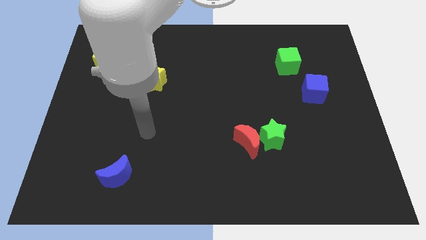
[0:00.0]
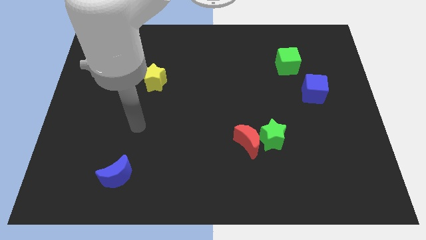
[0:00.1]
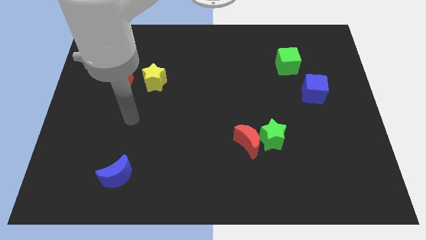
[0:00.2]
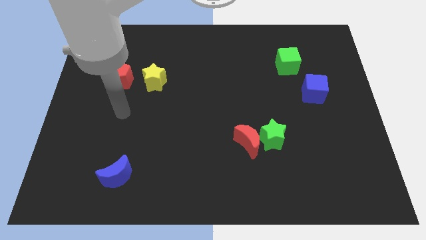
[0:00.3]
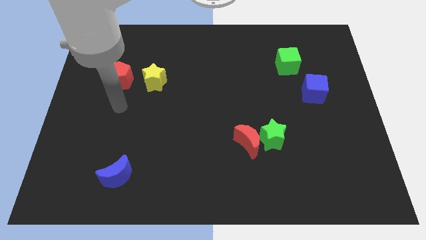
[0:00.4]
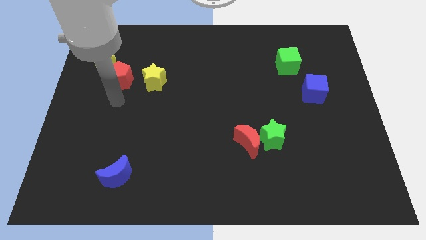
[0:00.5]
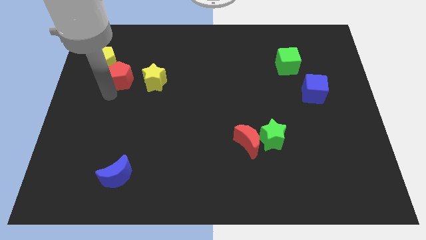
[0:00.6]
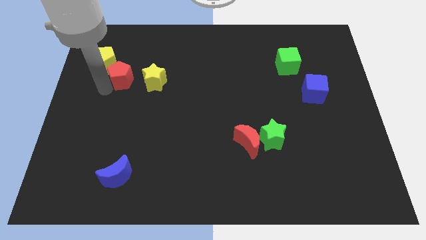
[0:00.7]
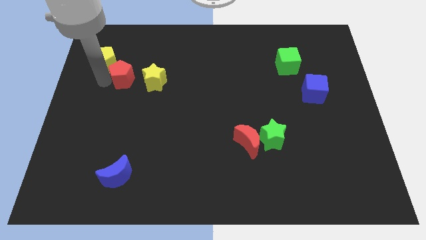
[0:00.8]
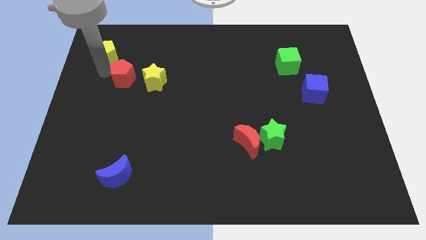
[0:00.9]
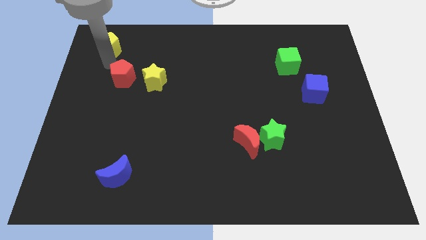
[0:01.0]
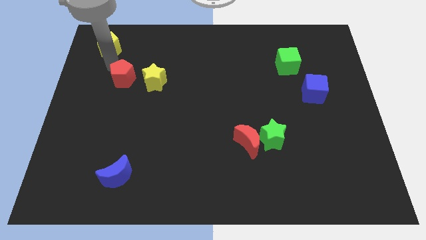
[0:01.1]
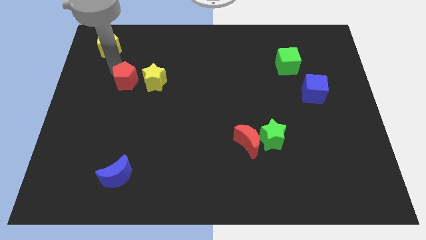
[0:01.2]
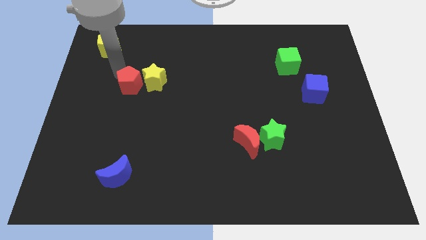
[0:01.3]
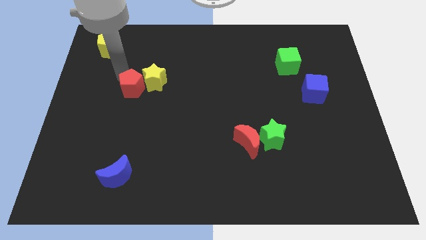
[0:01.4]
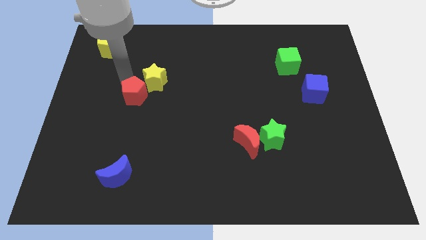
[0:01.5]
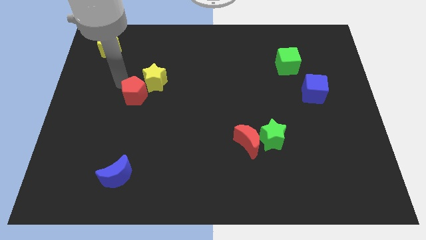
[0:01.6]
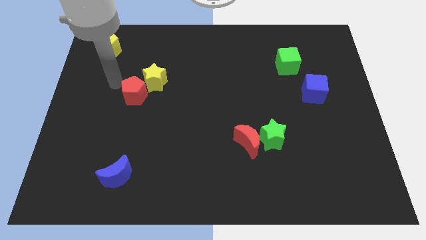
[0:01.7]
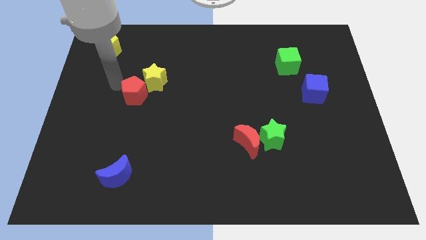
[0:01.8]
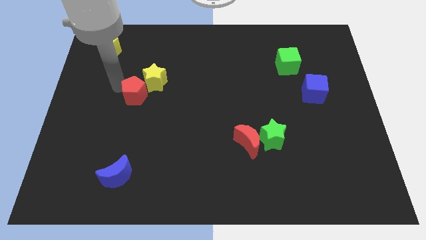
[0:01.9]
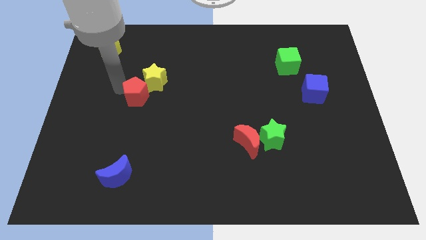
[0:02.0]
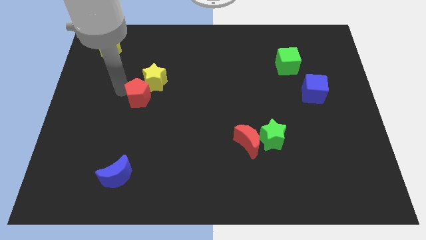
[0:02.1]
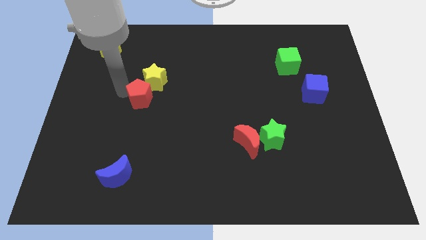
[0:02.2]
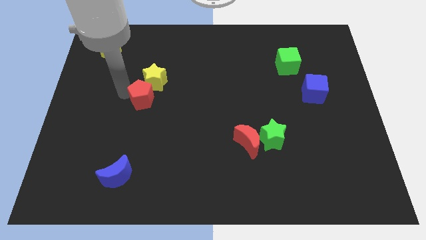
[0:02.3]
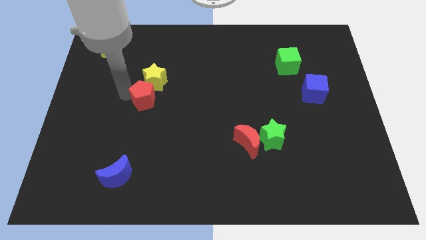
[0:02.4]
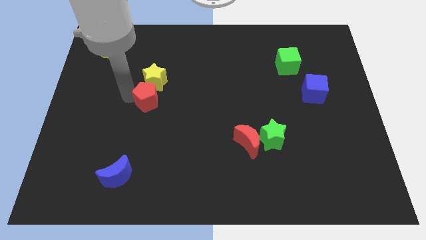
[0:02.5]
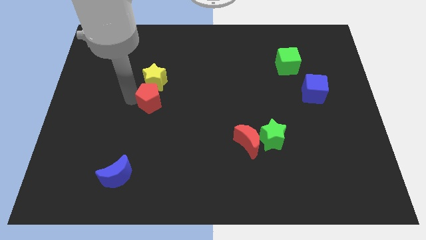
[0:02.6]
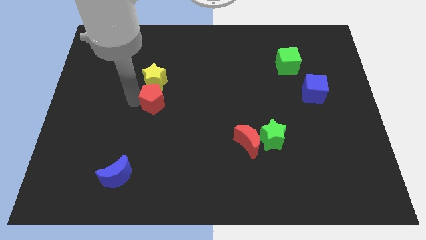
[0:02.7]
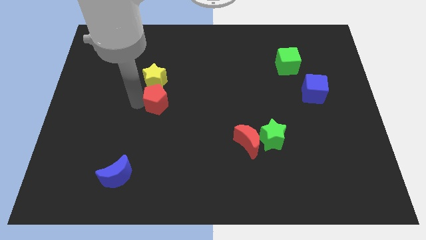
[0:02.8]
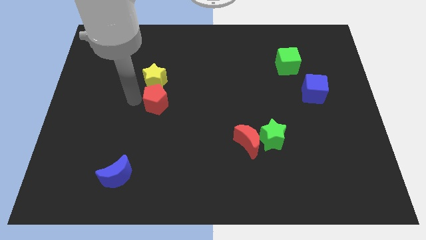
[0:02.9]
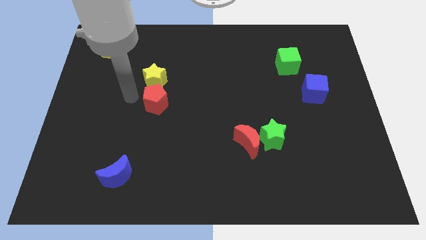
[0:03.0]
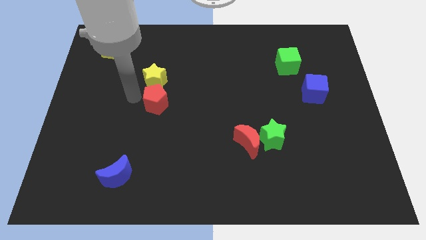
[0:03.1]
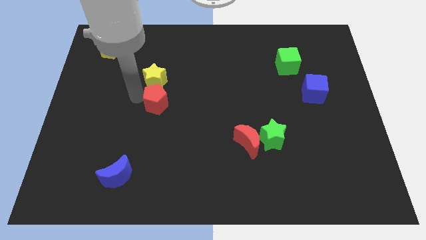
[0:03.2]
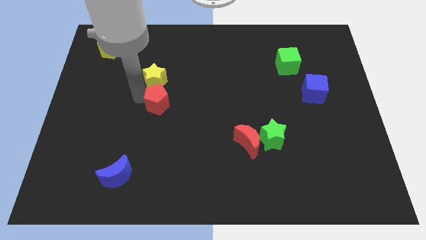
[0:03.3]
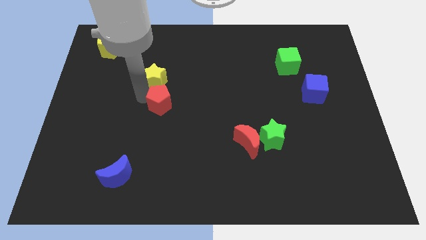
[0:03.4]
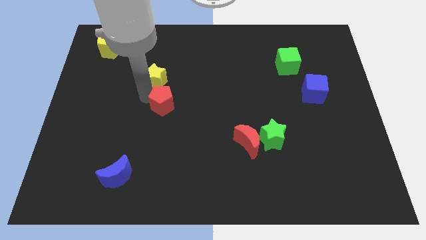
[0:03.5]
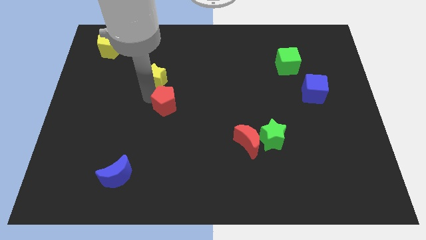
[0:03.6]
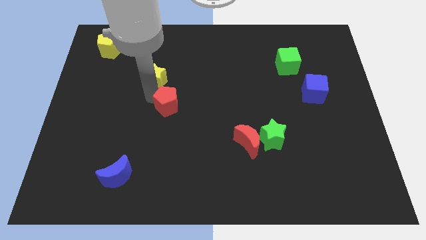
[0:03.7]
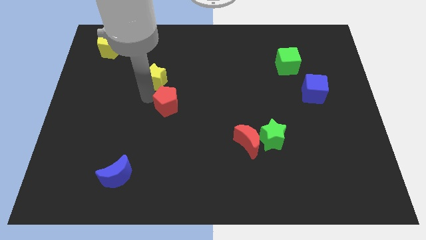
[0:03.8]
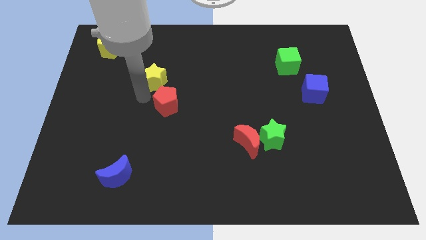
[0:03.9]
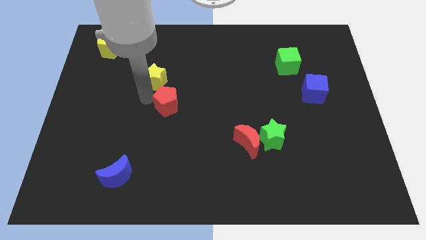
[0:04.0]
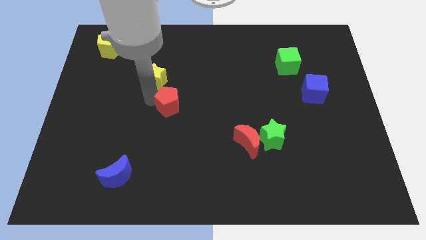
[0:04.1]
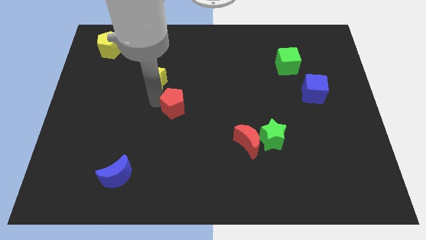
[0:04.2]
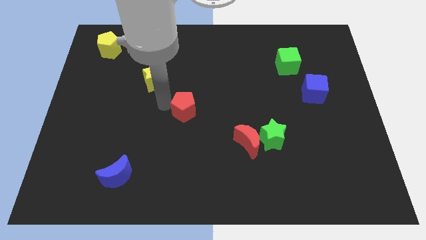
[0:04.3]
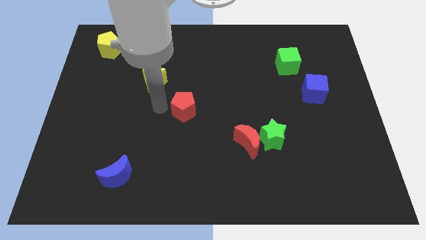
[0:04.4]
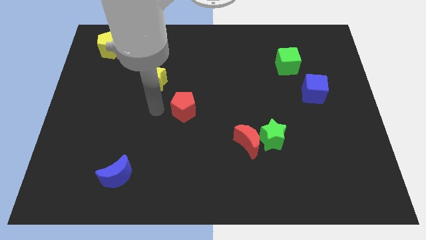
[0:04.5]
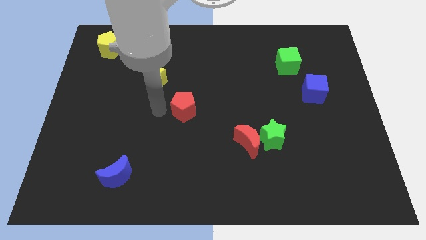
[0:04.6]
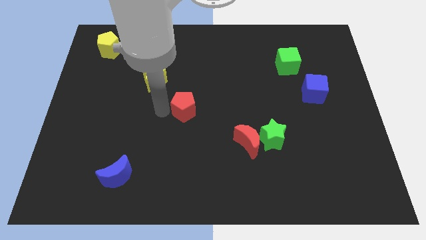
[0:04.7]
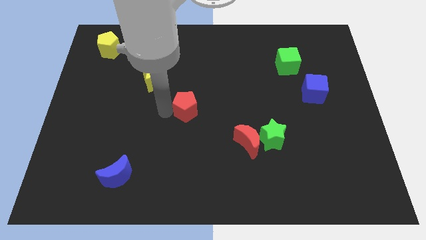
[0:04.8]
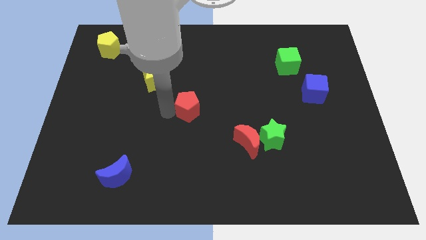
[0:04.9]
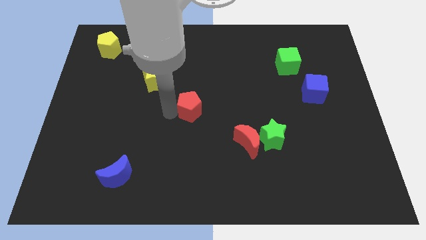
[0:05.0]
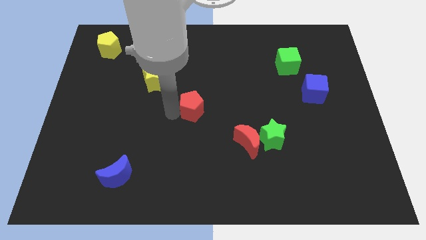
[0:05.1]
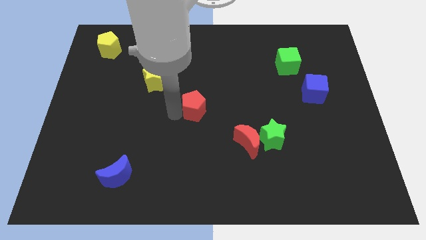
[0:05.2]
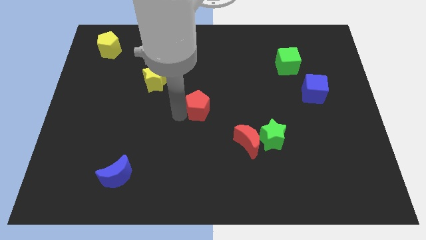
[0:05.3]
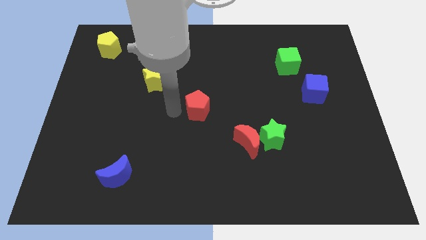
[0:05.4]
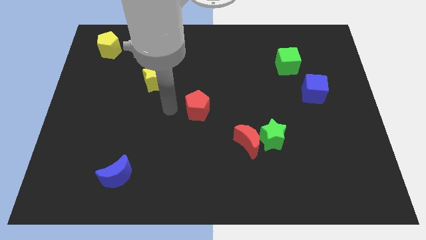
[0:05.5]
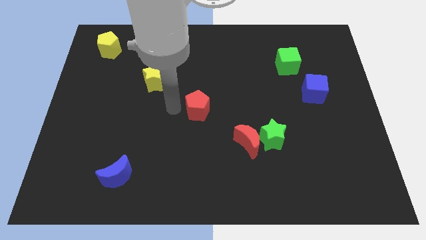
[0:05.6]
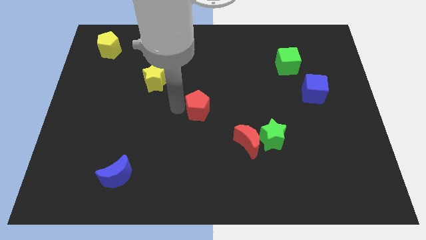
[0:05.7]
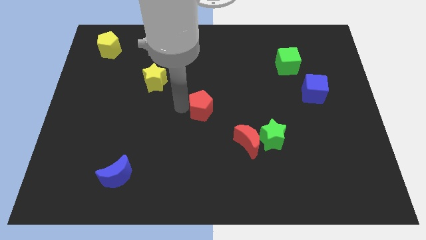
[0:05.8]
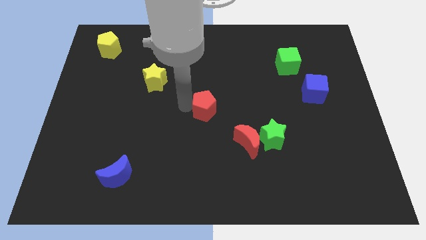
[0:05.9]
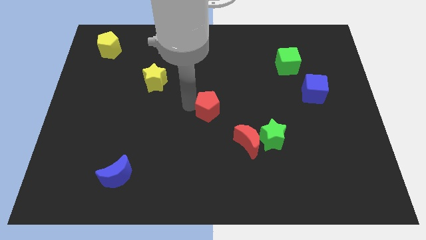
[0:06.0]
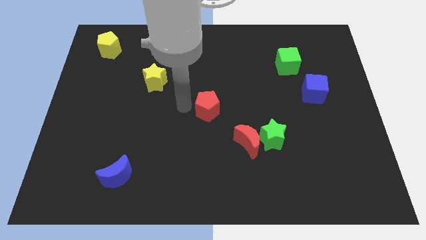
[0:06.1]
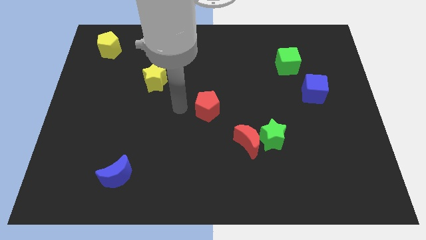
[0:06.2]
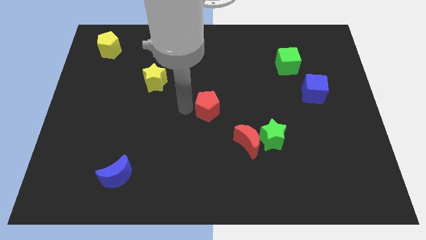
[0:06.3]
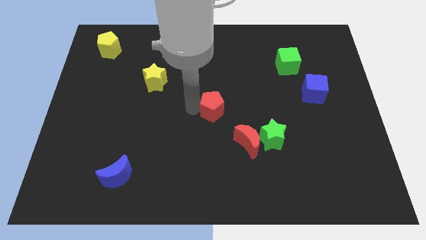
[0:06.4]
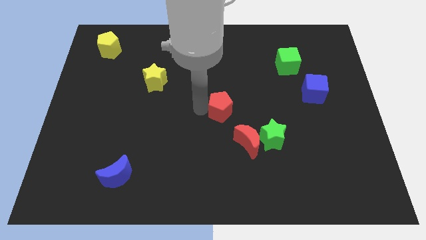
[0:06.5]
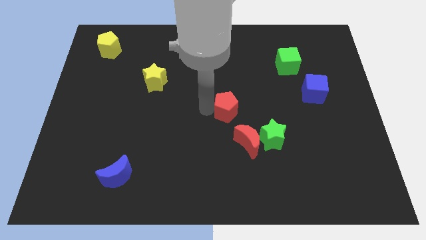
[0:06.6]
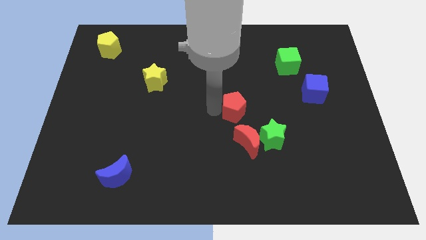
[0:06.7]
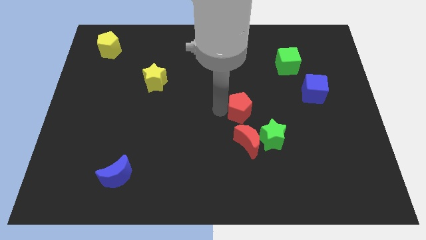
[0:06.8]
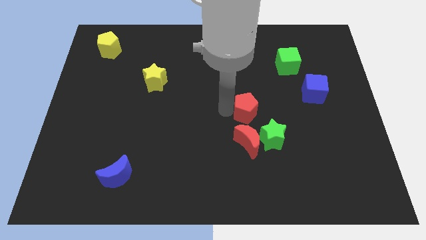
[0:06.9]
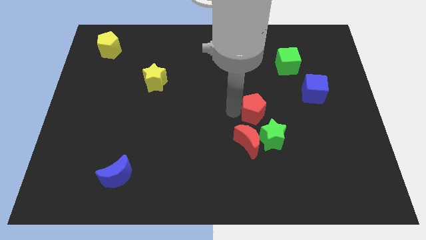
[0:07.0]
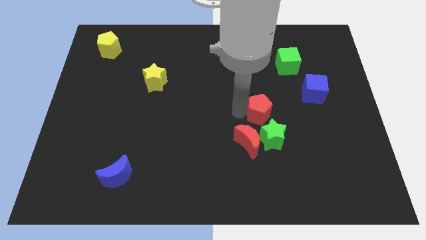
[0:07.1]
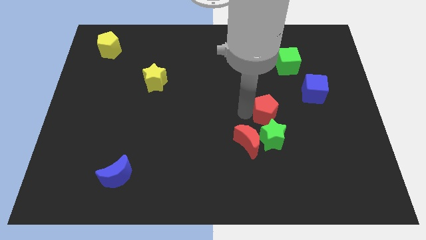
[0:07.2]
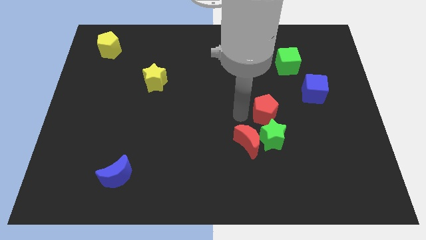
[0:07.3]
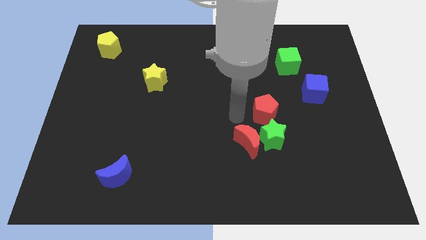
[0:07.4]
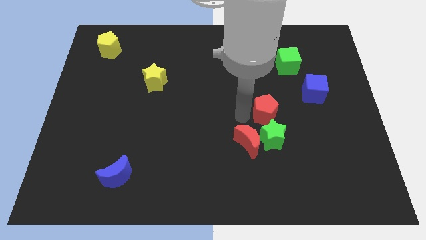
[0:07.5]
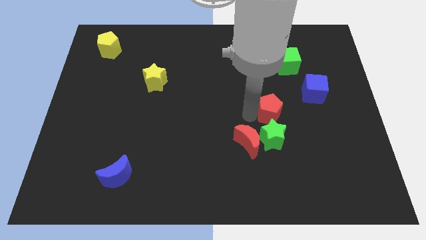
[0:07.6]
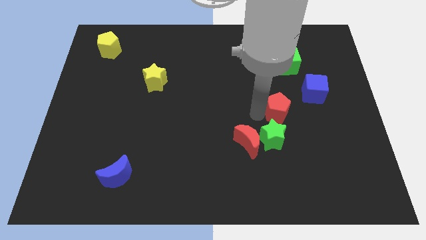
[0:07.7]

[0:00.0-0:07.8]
move the red pentagon to the bottom left of the blue cube
